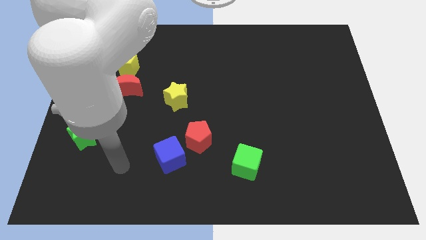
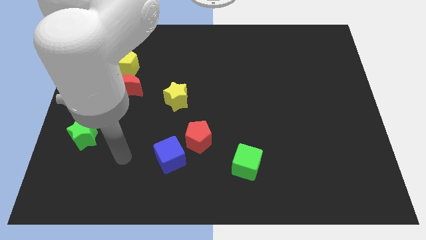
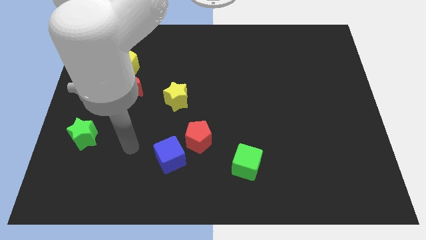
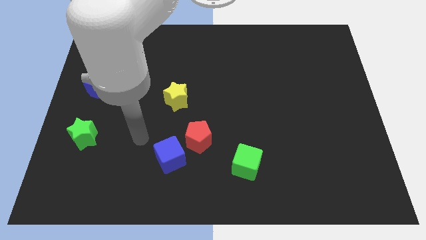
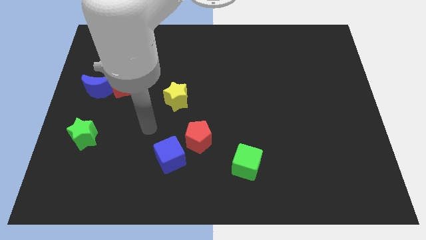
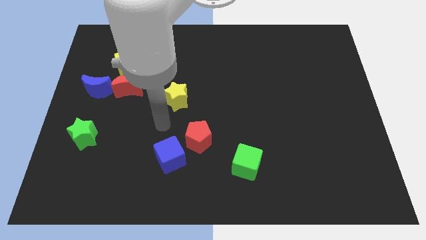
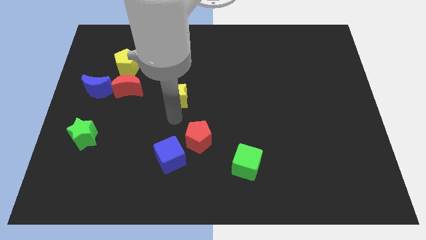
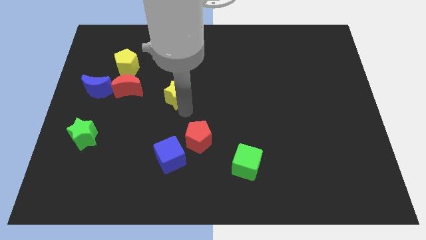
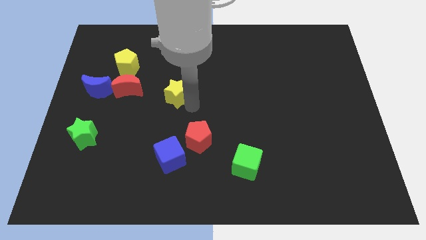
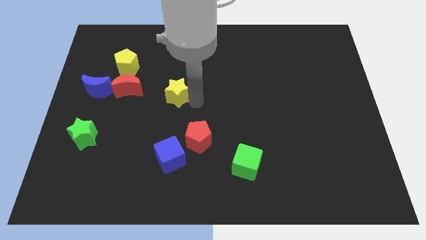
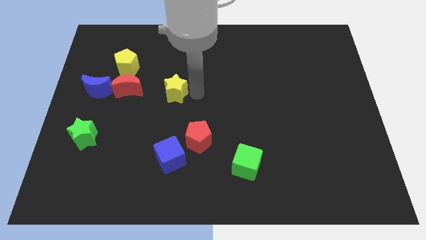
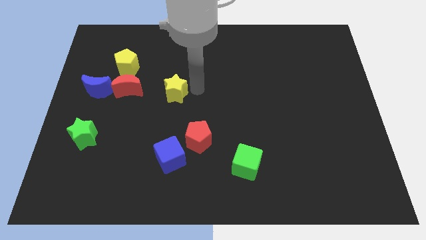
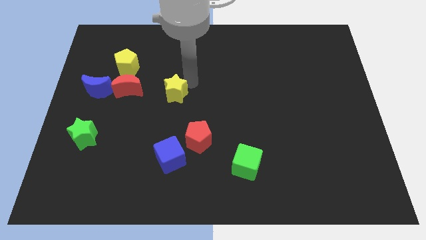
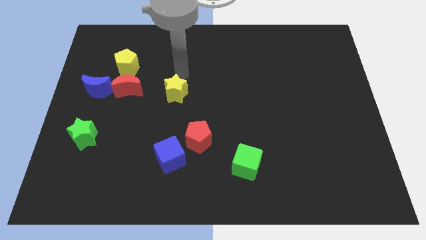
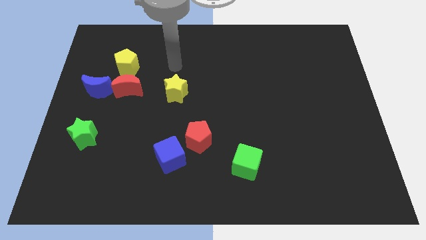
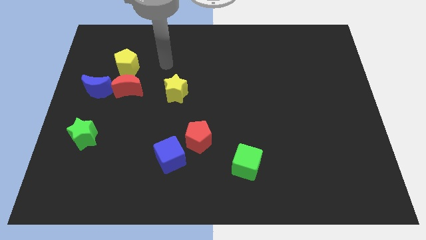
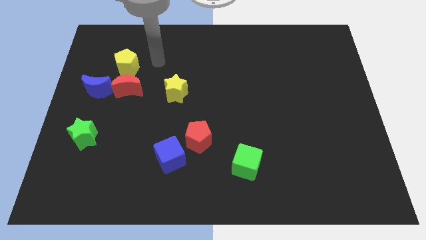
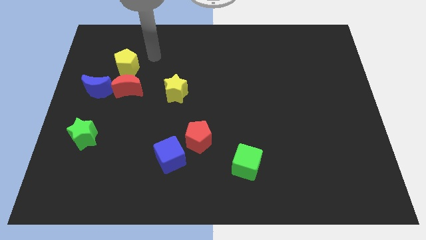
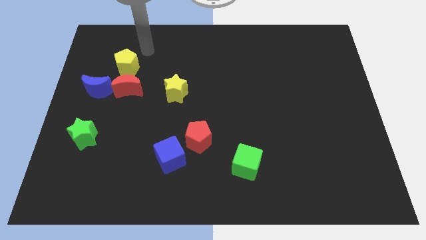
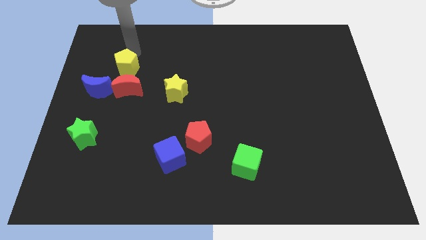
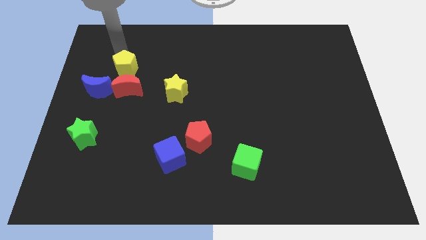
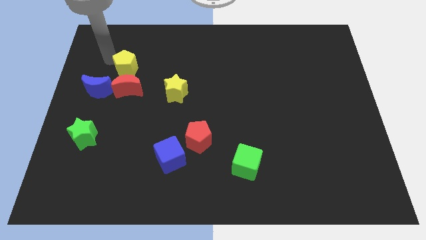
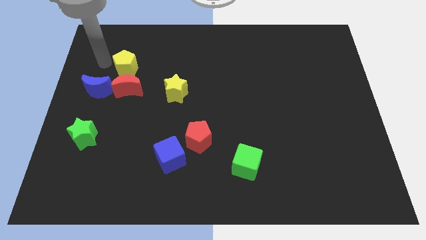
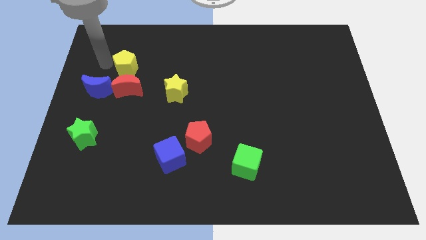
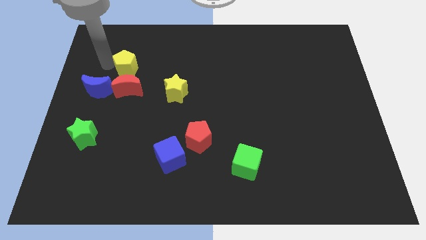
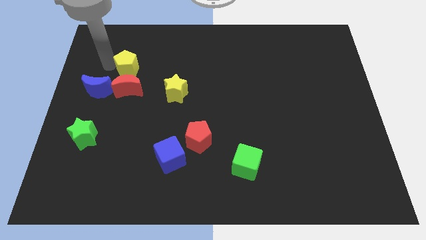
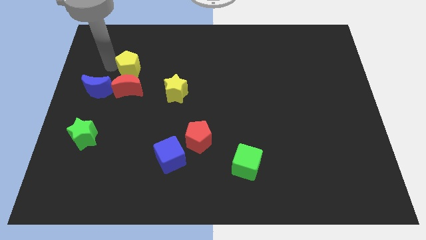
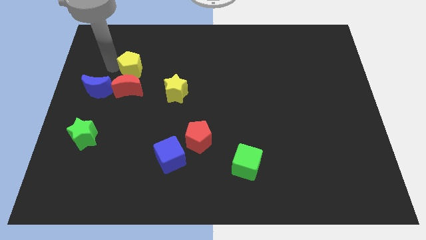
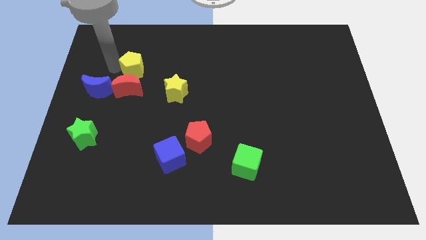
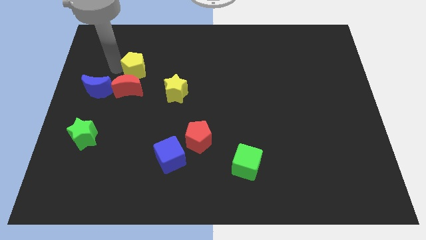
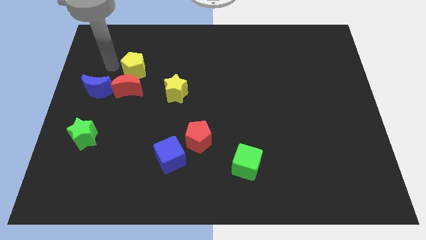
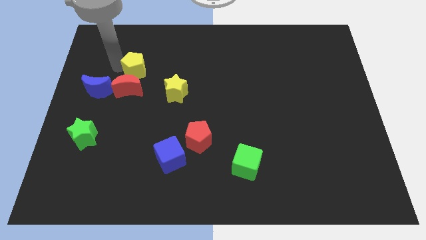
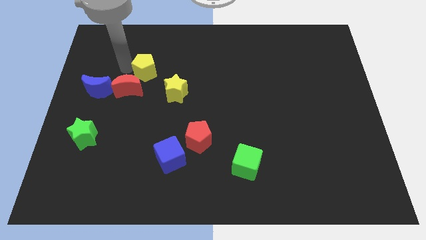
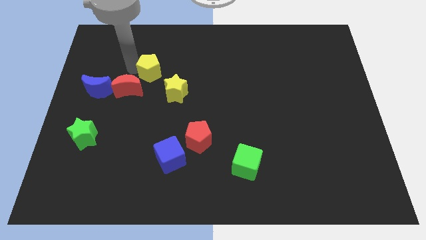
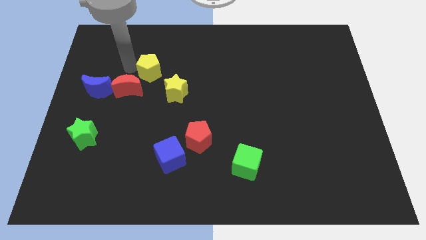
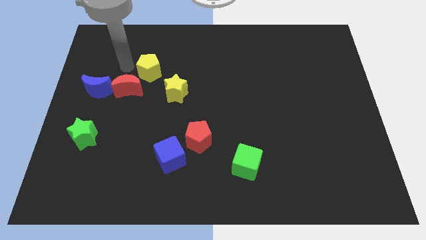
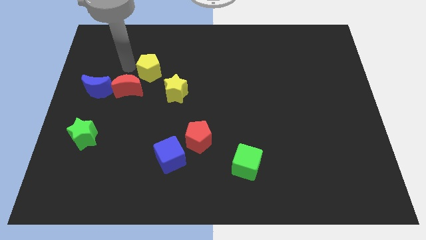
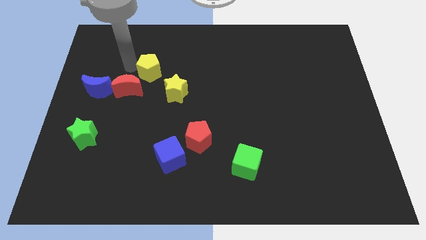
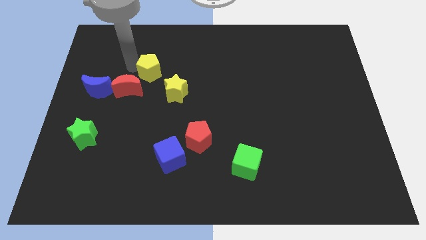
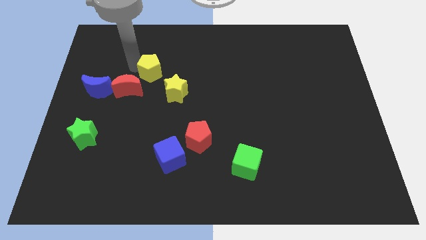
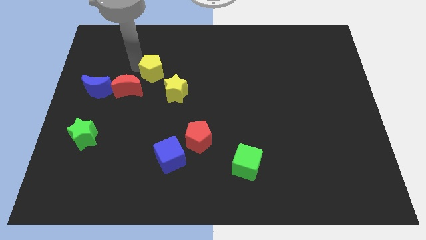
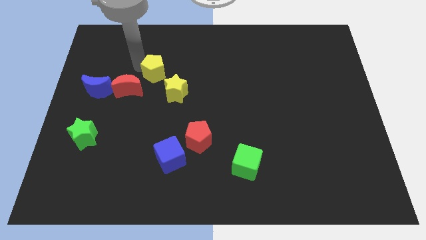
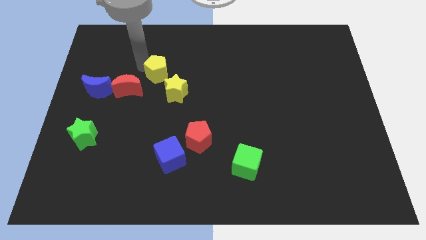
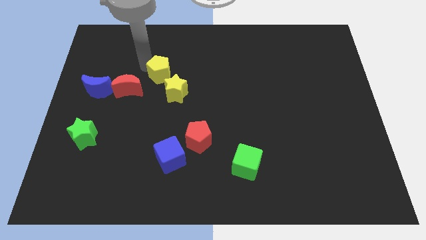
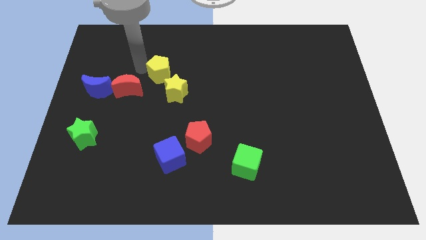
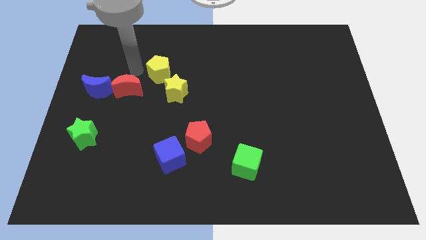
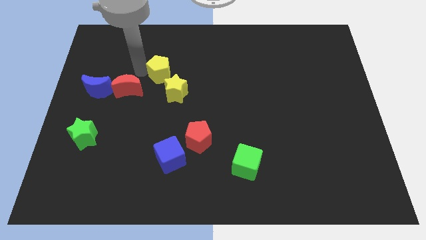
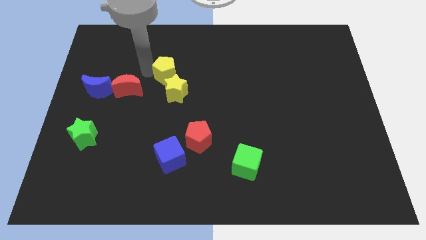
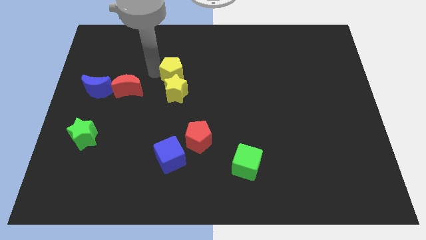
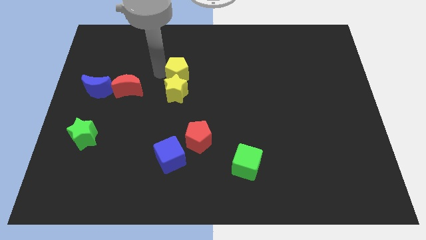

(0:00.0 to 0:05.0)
slide the yellow pentagon to the top right of the yellow star

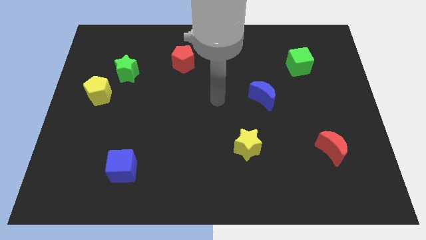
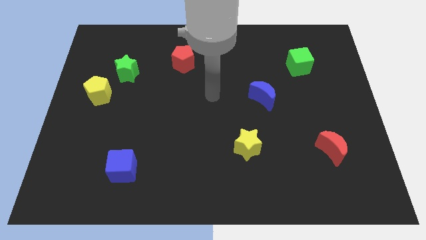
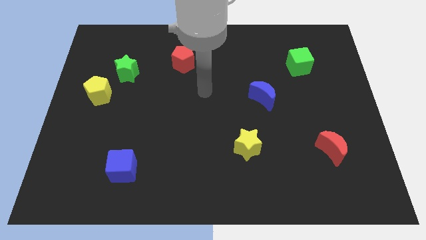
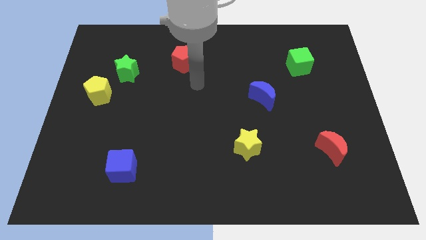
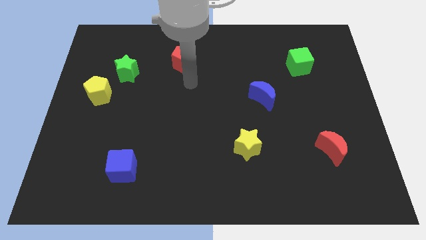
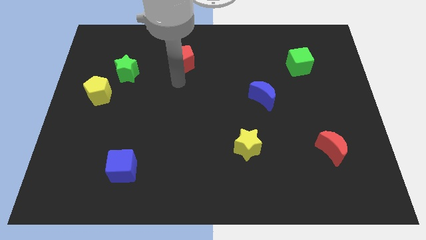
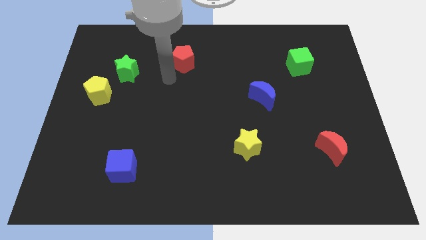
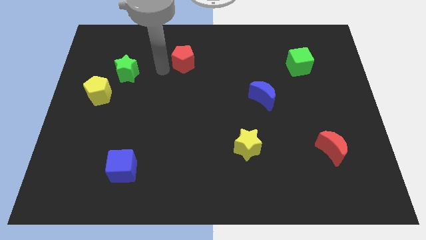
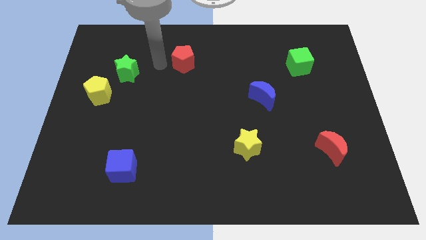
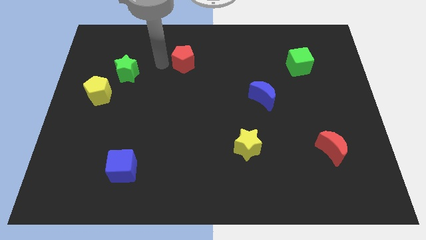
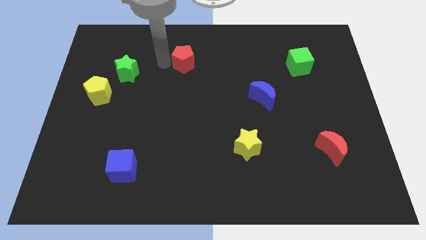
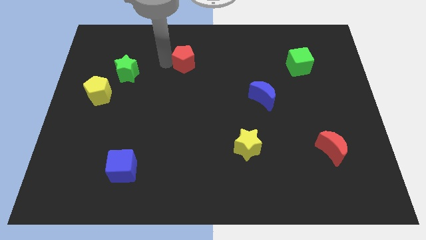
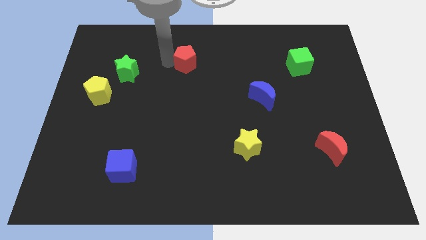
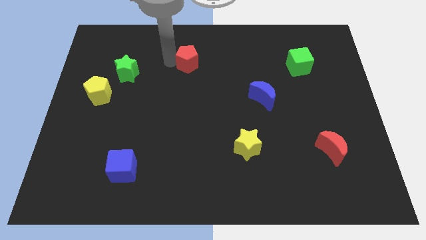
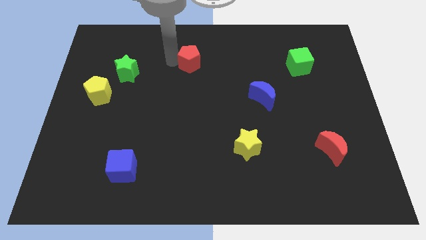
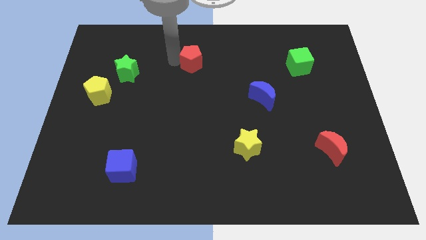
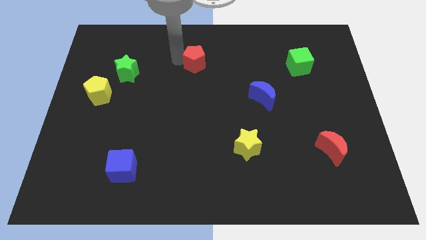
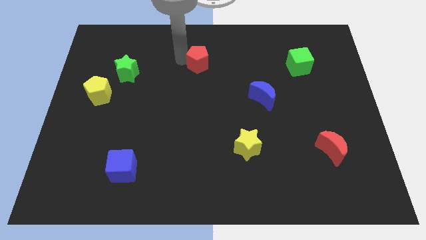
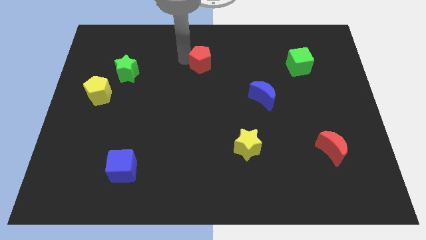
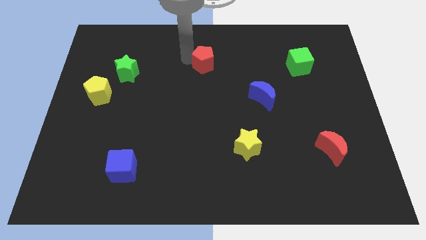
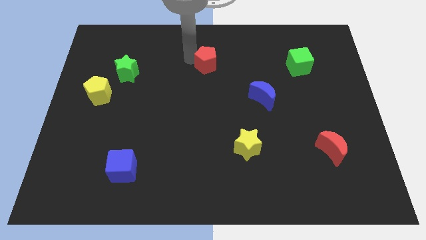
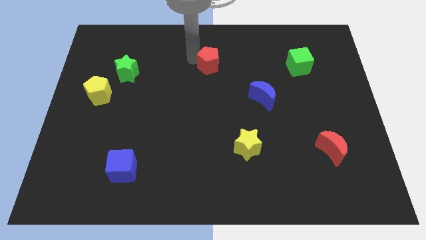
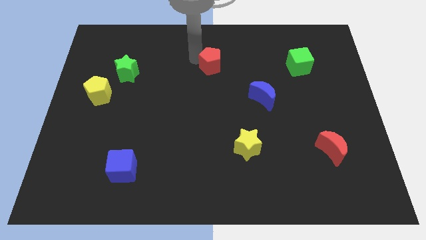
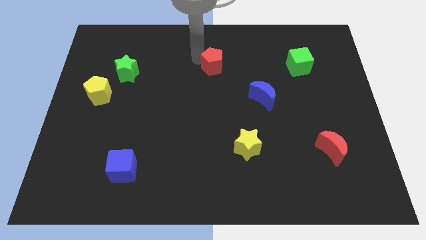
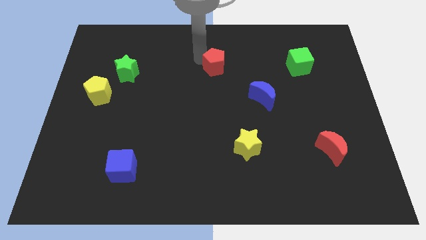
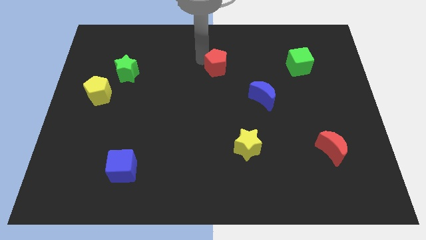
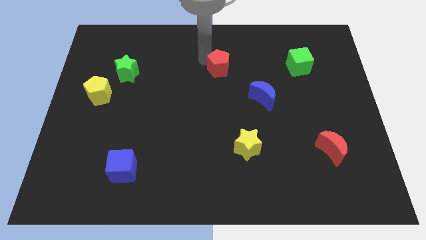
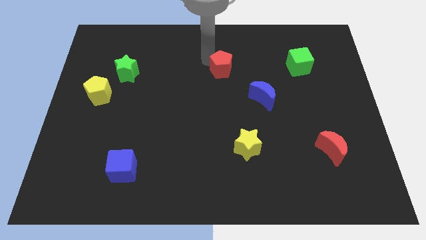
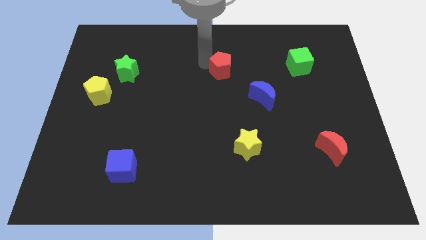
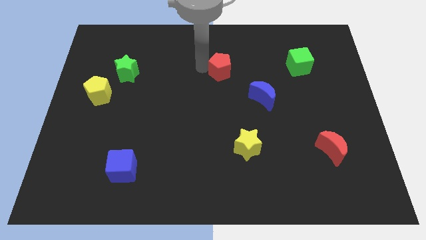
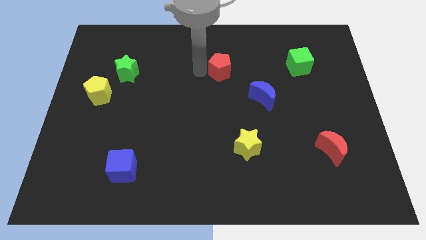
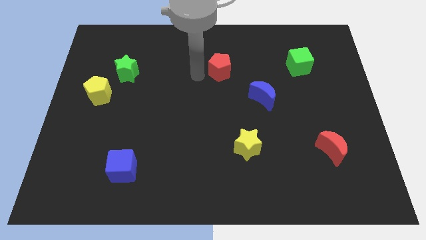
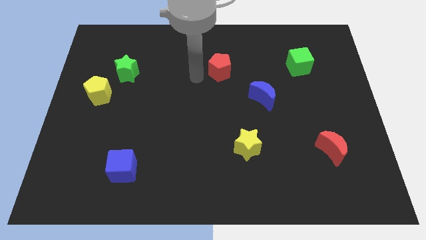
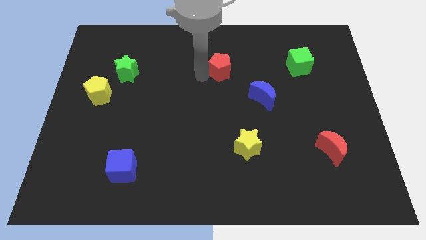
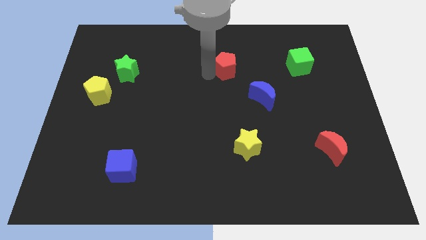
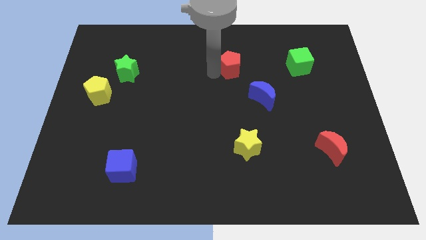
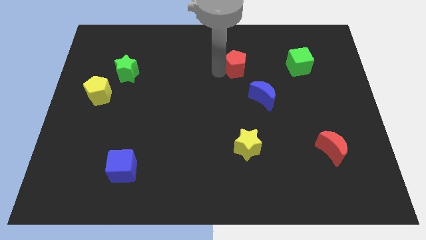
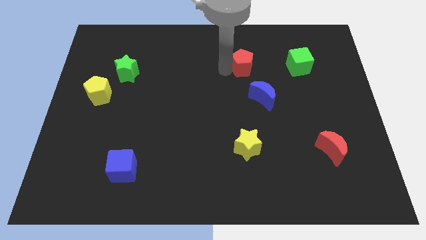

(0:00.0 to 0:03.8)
slide the red pentagon to the left side of the green cube
